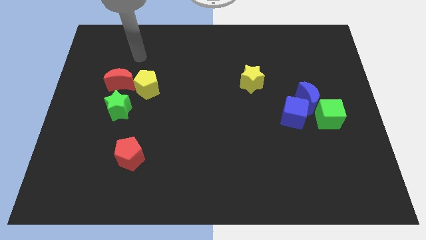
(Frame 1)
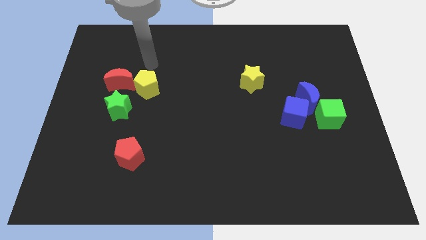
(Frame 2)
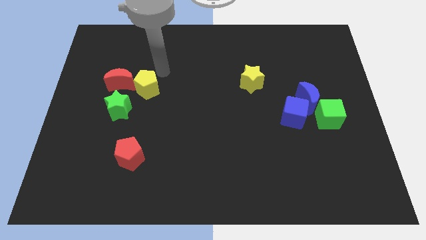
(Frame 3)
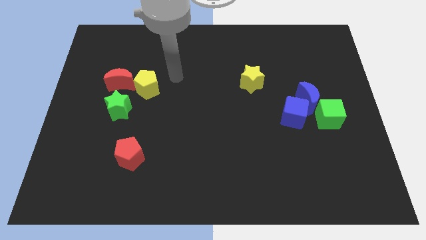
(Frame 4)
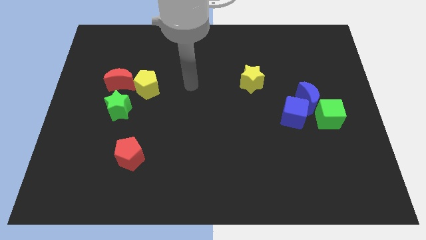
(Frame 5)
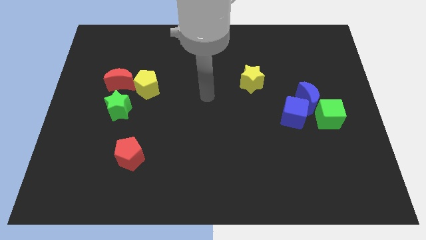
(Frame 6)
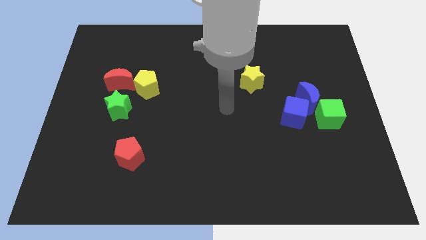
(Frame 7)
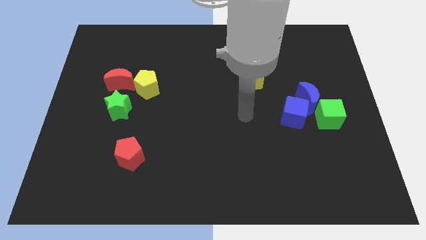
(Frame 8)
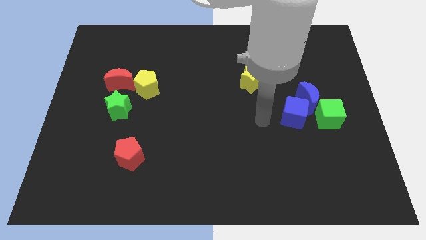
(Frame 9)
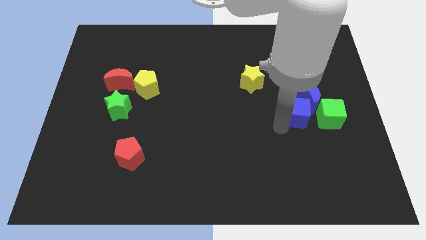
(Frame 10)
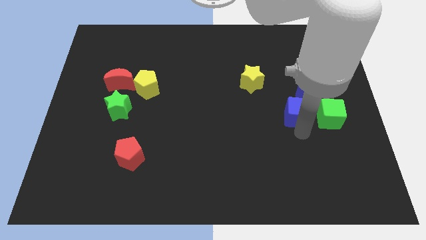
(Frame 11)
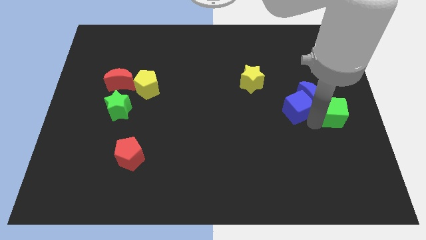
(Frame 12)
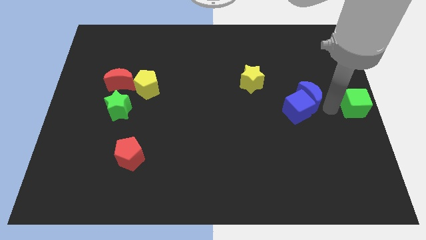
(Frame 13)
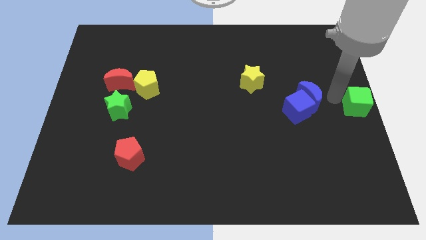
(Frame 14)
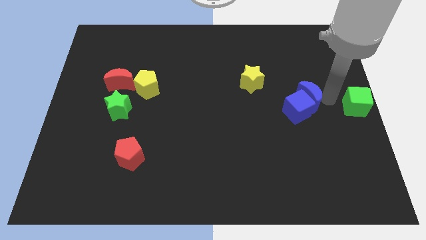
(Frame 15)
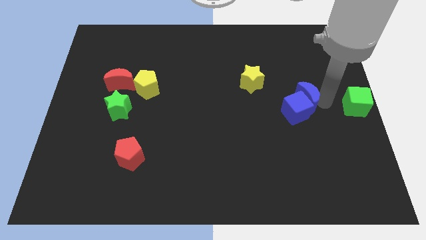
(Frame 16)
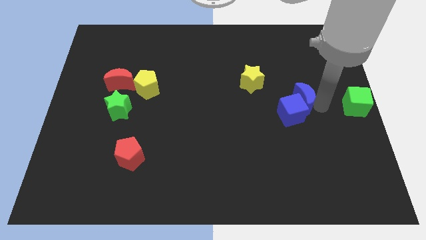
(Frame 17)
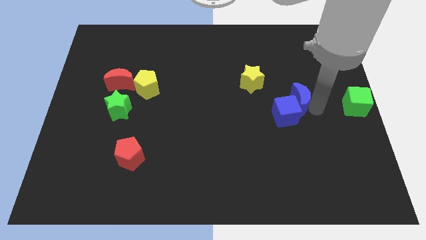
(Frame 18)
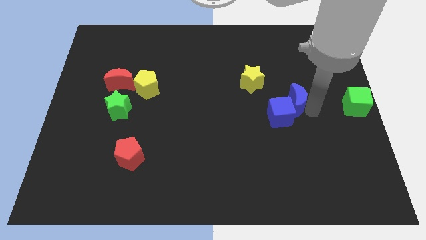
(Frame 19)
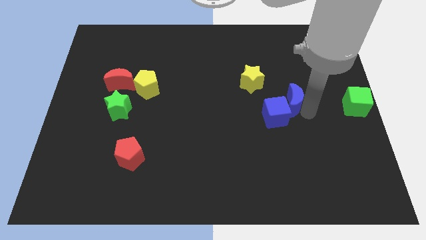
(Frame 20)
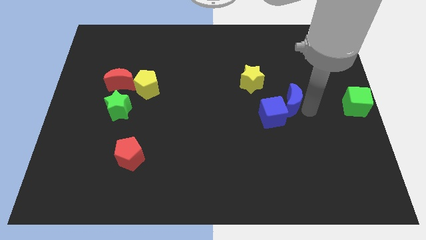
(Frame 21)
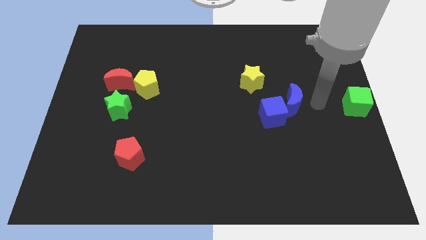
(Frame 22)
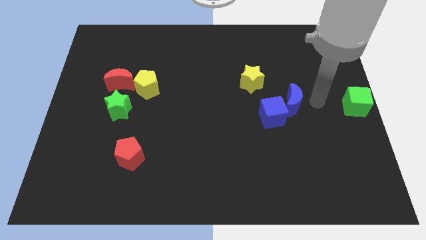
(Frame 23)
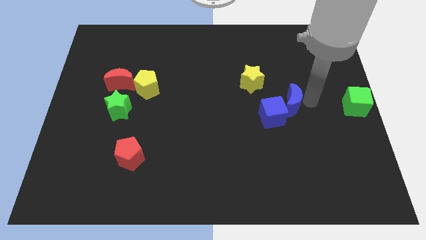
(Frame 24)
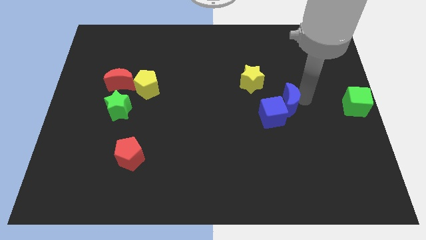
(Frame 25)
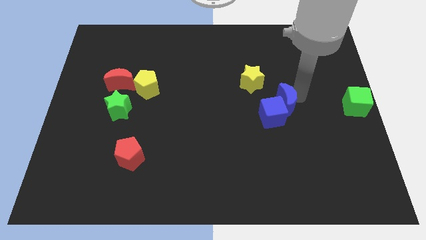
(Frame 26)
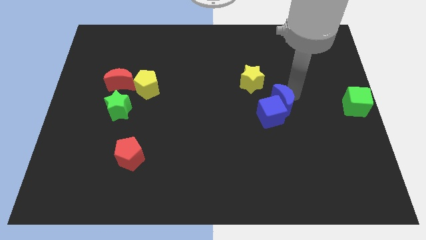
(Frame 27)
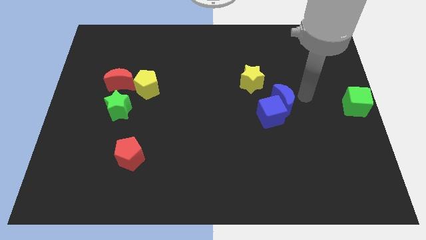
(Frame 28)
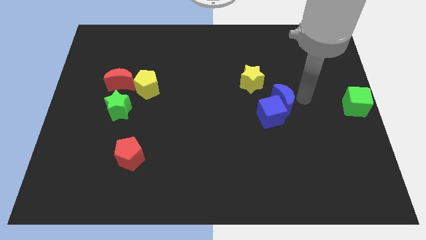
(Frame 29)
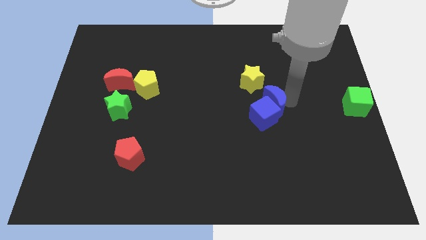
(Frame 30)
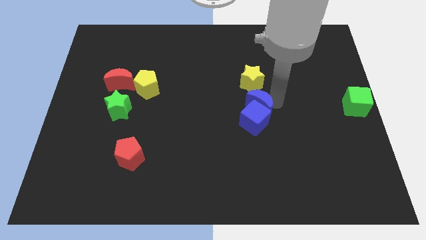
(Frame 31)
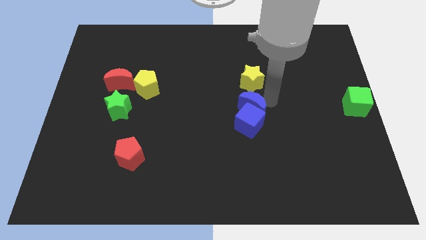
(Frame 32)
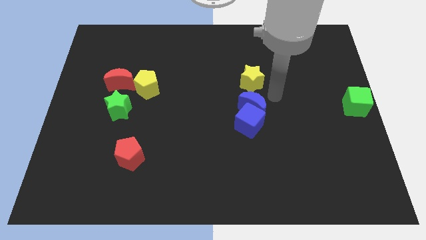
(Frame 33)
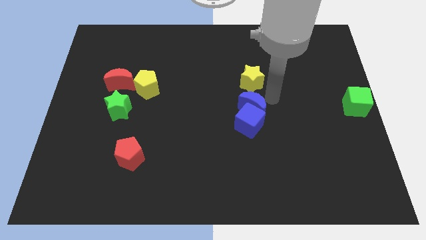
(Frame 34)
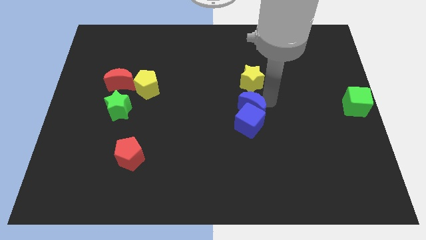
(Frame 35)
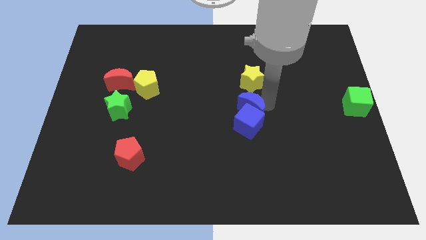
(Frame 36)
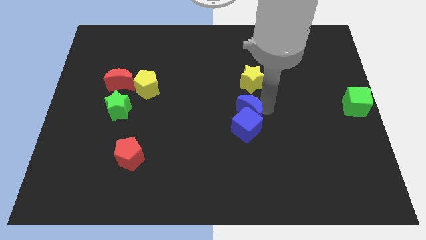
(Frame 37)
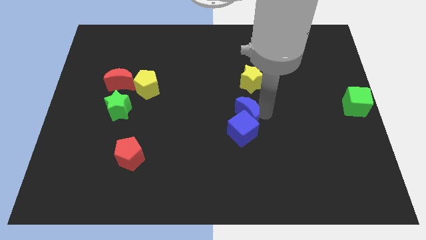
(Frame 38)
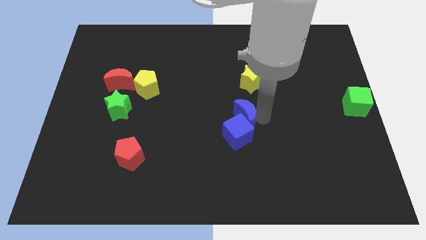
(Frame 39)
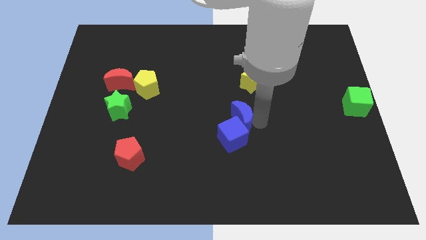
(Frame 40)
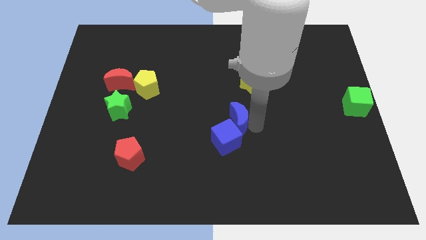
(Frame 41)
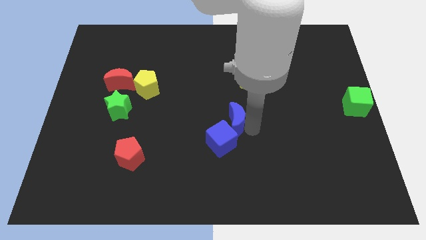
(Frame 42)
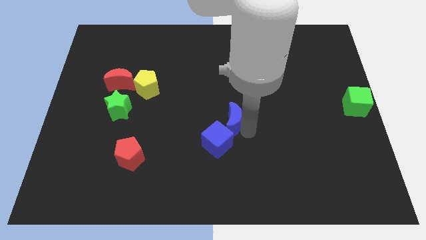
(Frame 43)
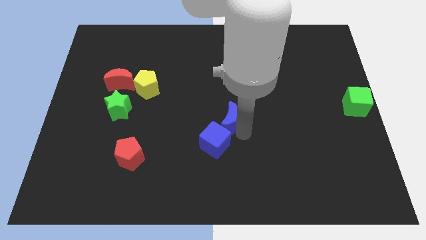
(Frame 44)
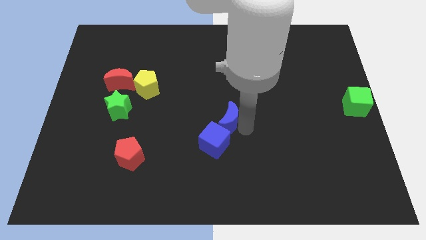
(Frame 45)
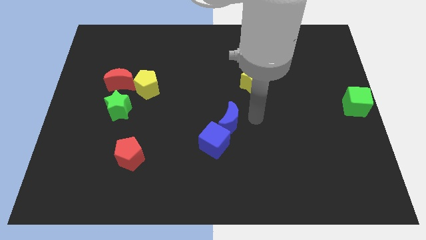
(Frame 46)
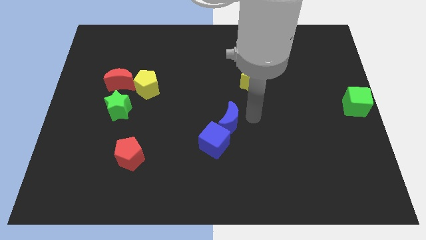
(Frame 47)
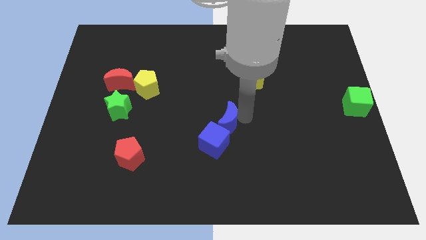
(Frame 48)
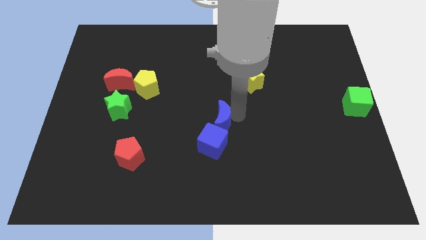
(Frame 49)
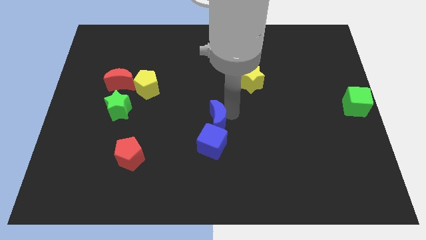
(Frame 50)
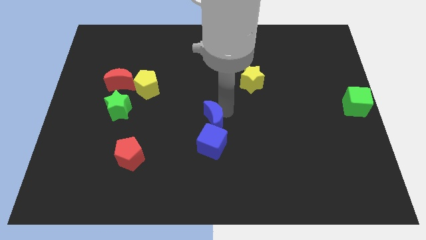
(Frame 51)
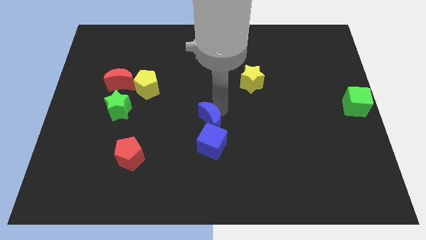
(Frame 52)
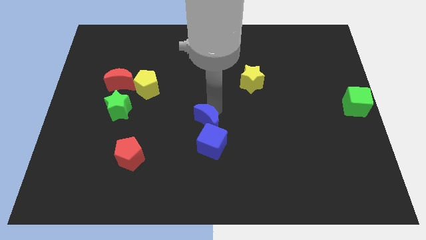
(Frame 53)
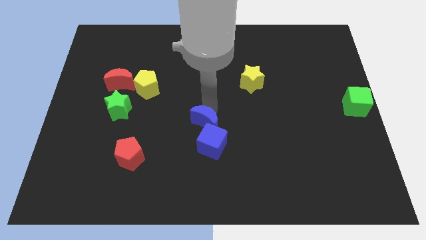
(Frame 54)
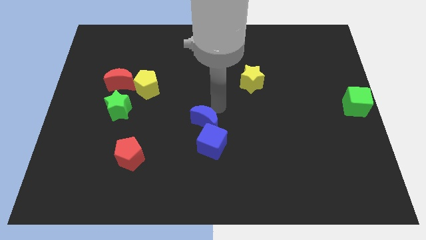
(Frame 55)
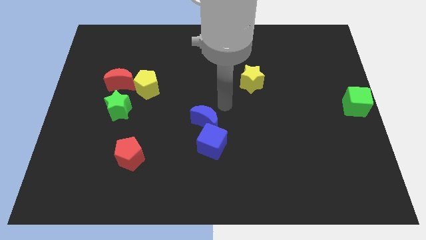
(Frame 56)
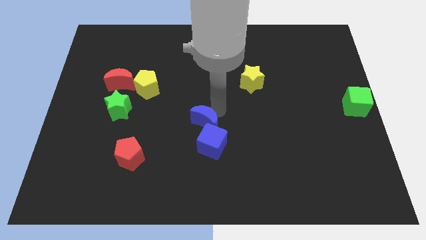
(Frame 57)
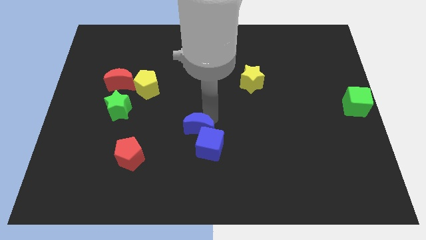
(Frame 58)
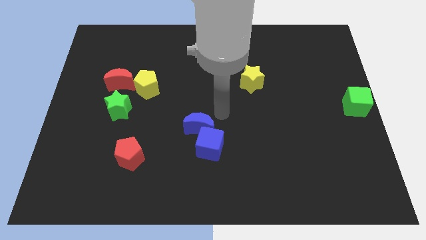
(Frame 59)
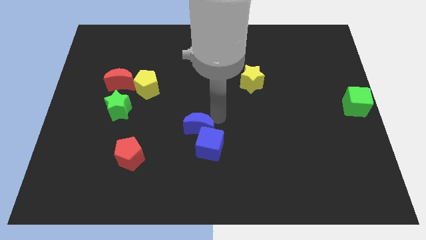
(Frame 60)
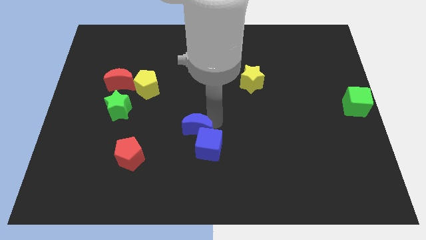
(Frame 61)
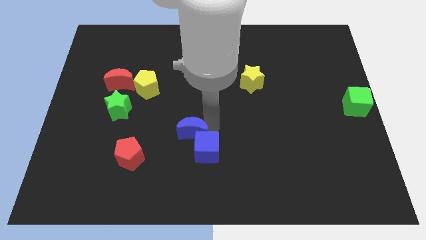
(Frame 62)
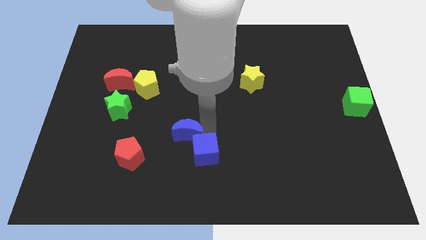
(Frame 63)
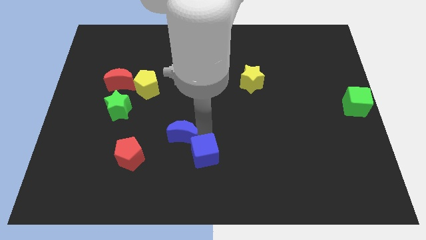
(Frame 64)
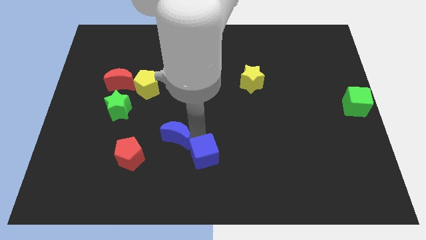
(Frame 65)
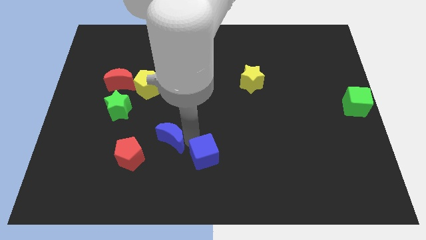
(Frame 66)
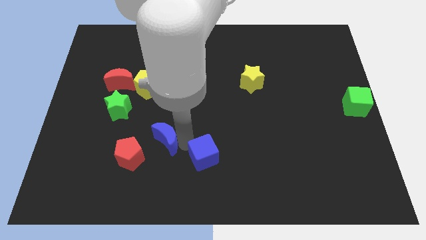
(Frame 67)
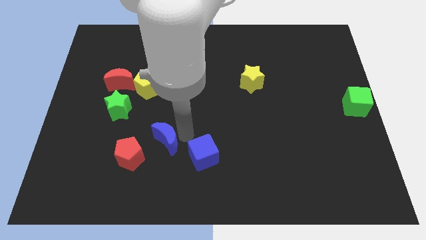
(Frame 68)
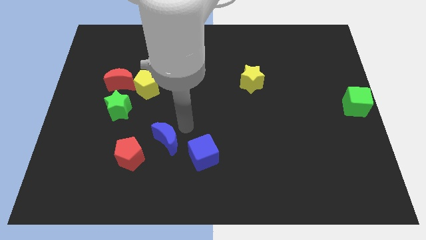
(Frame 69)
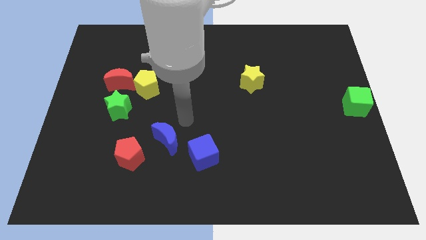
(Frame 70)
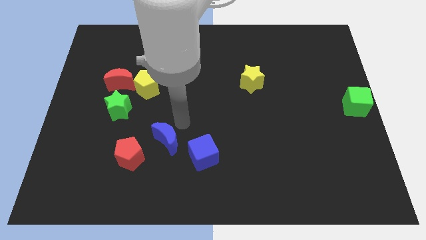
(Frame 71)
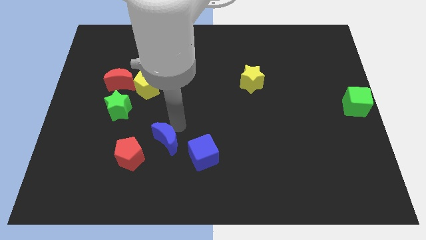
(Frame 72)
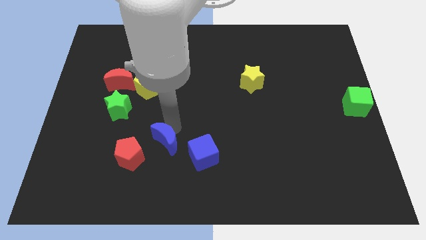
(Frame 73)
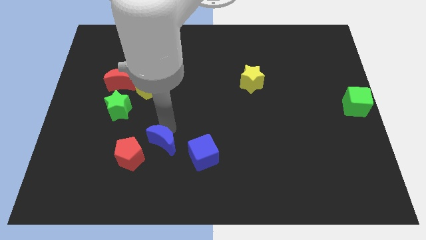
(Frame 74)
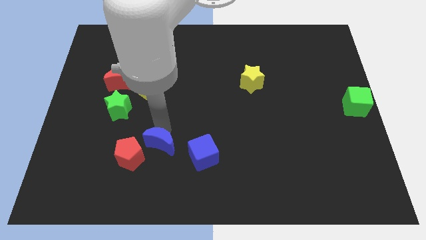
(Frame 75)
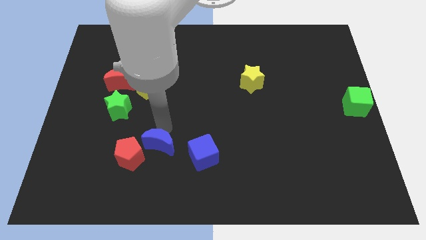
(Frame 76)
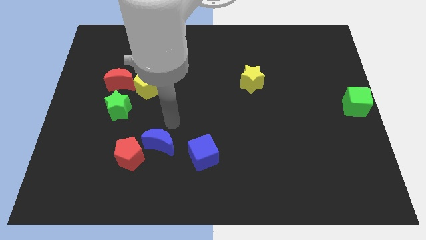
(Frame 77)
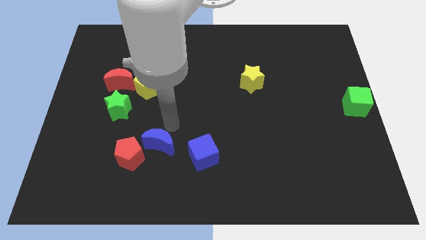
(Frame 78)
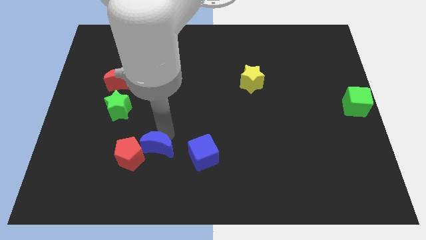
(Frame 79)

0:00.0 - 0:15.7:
move the blue moon to the red pentagon
